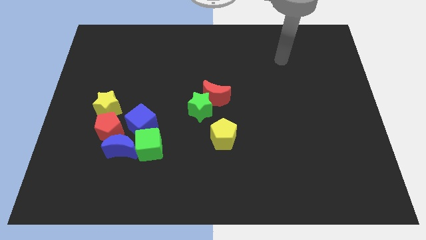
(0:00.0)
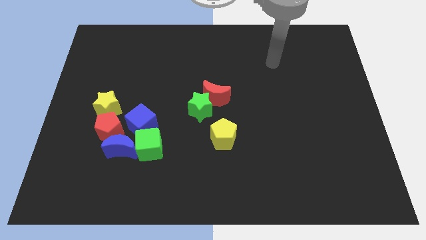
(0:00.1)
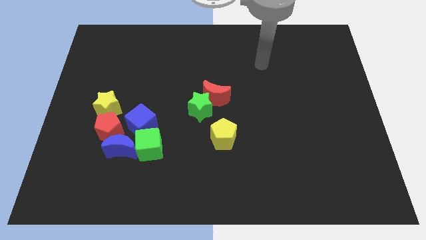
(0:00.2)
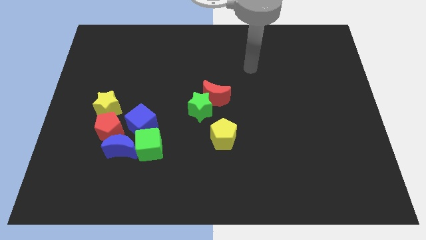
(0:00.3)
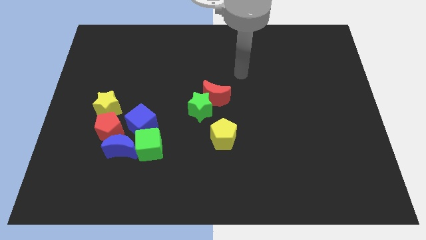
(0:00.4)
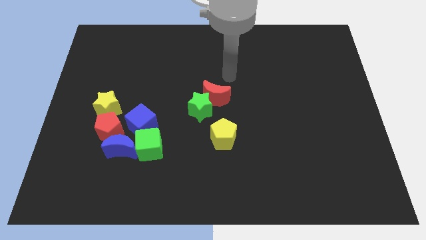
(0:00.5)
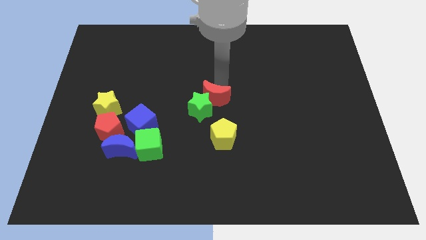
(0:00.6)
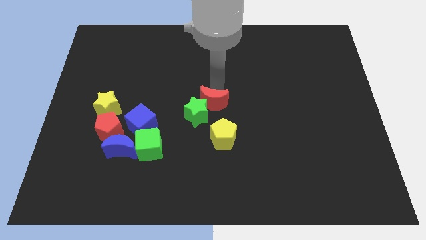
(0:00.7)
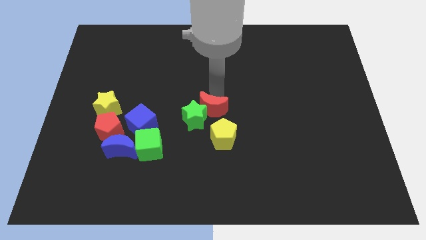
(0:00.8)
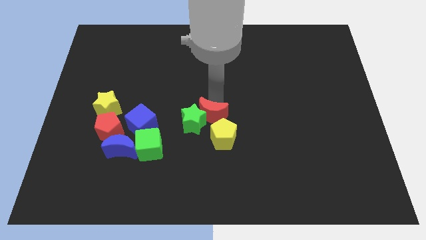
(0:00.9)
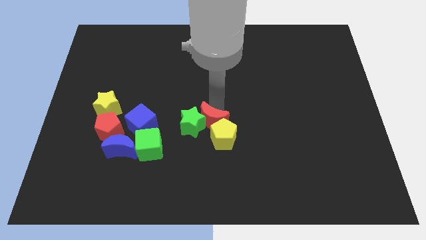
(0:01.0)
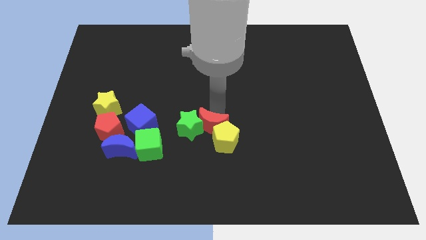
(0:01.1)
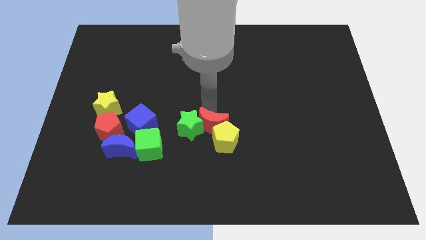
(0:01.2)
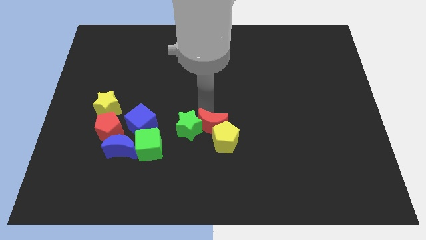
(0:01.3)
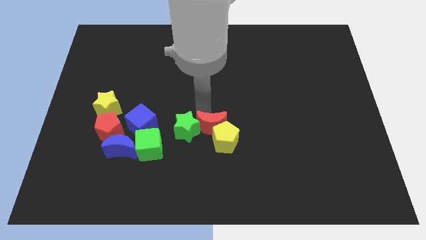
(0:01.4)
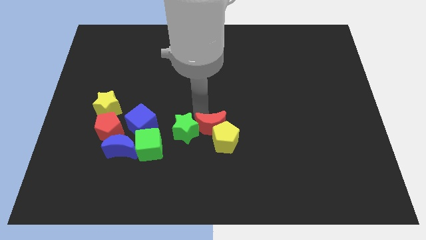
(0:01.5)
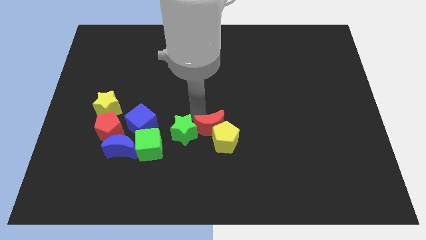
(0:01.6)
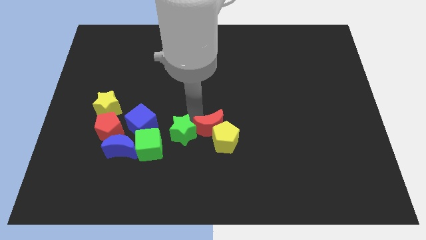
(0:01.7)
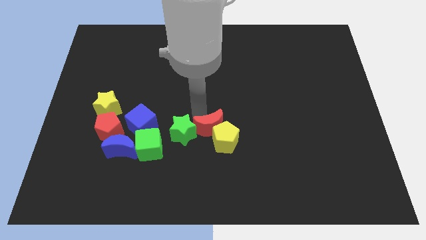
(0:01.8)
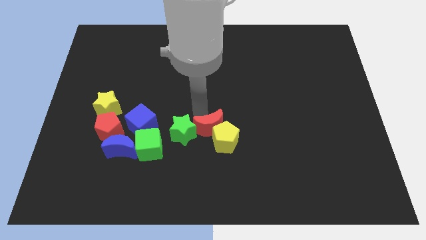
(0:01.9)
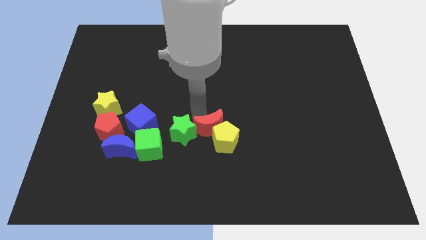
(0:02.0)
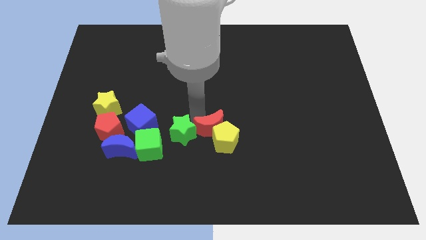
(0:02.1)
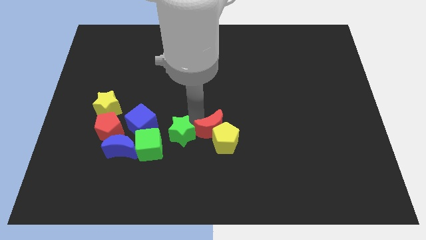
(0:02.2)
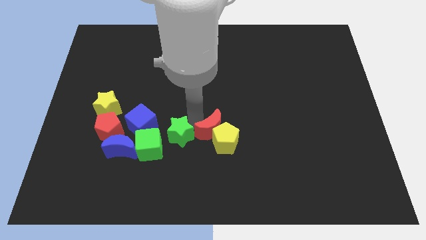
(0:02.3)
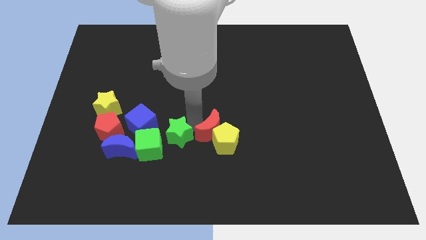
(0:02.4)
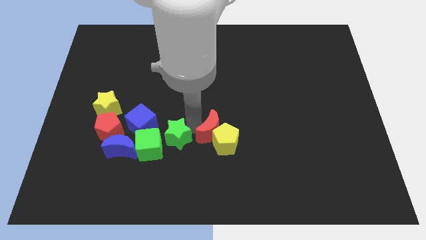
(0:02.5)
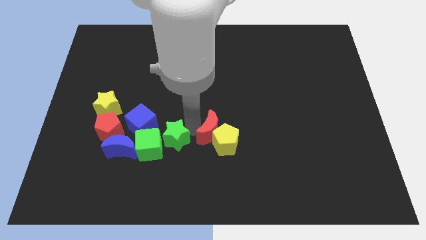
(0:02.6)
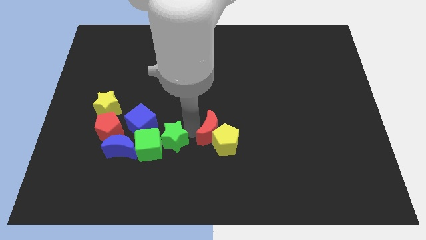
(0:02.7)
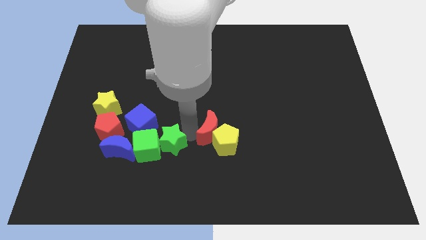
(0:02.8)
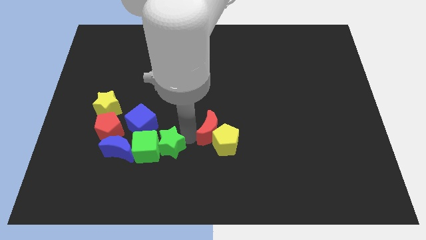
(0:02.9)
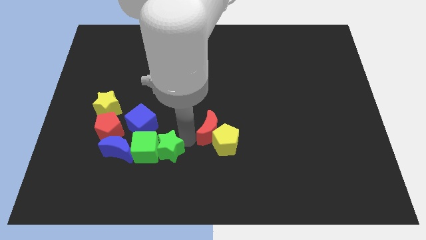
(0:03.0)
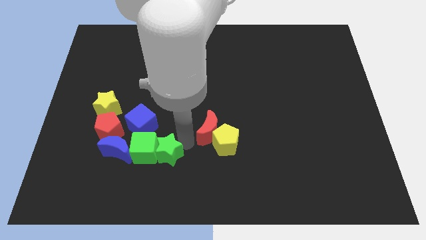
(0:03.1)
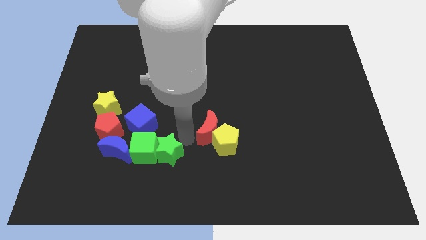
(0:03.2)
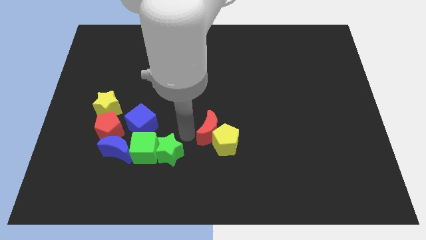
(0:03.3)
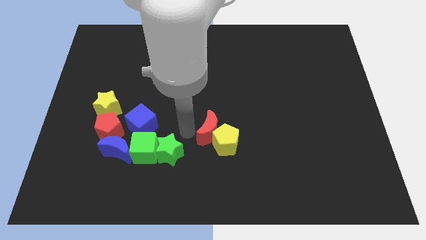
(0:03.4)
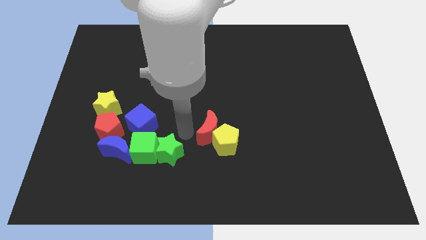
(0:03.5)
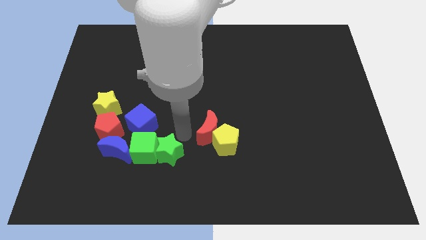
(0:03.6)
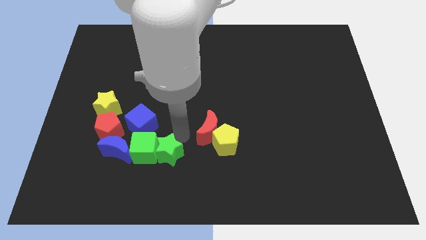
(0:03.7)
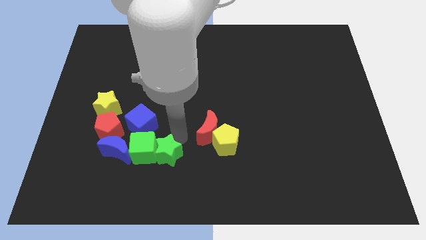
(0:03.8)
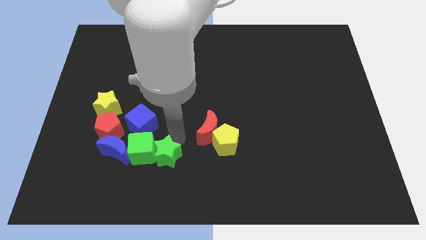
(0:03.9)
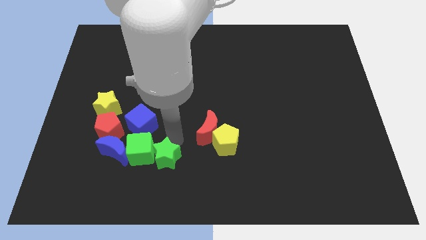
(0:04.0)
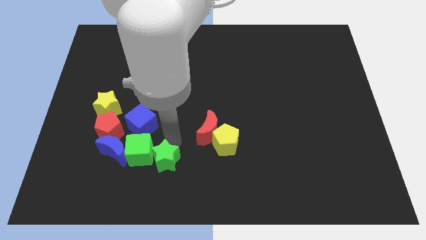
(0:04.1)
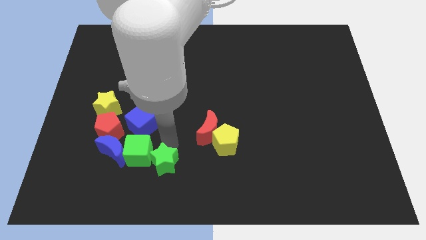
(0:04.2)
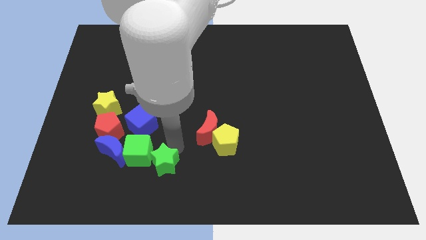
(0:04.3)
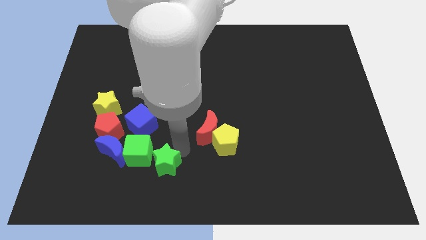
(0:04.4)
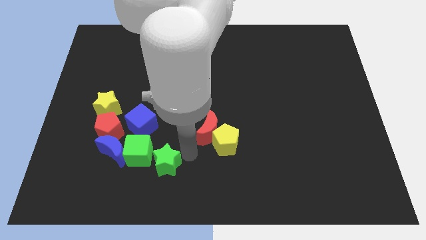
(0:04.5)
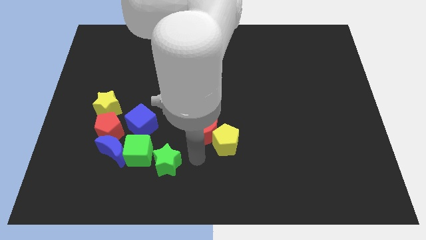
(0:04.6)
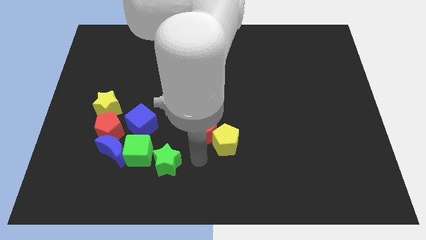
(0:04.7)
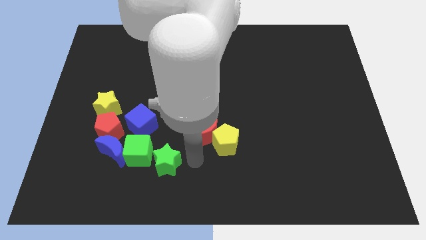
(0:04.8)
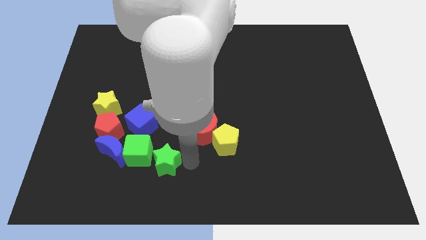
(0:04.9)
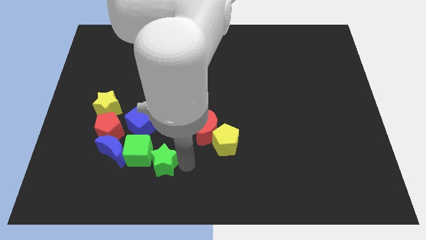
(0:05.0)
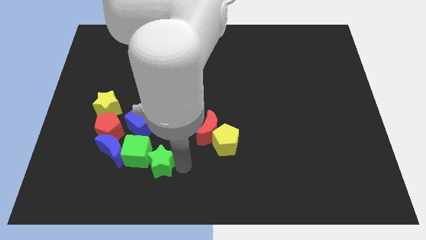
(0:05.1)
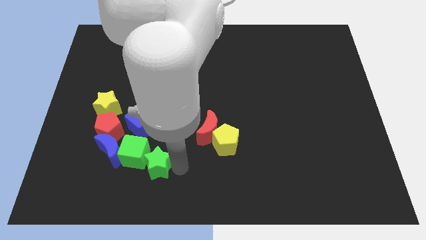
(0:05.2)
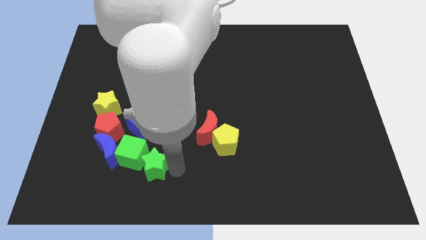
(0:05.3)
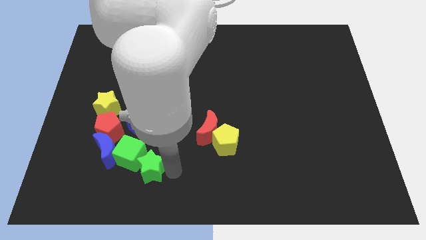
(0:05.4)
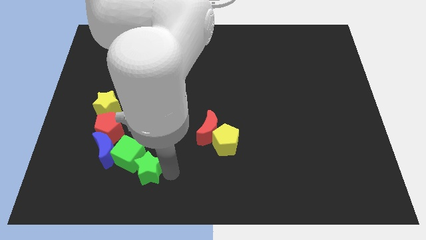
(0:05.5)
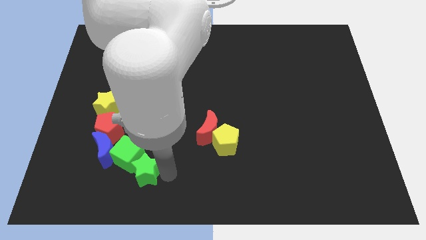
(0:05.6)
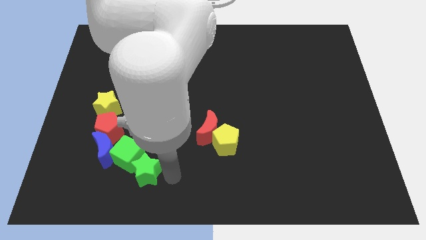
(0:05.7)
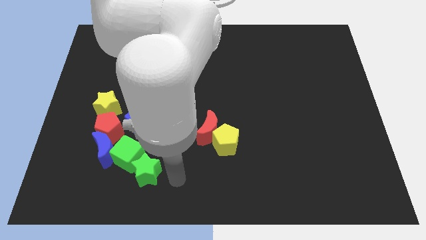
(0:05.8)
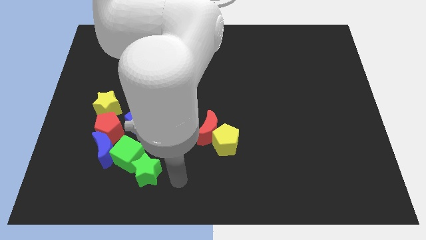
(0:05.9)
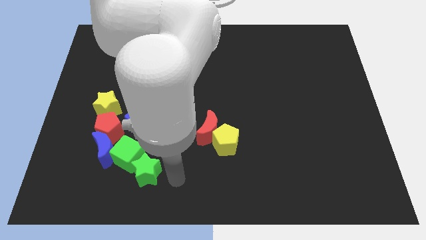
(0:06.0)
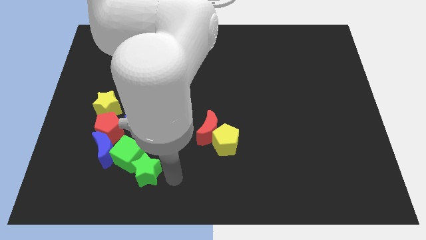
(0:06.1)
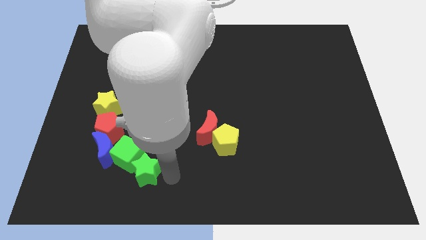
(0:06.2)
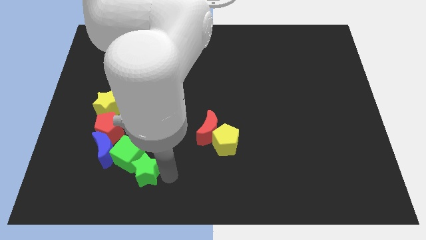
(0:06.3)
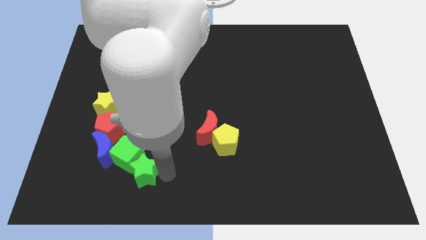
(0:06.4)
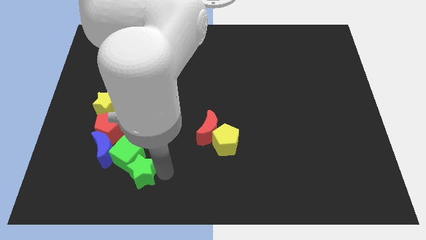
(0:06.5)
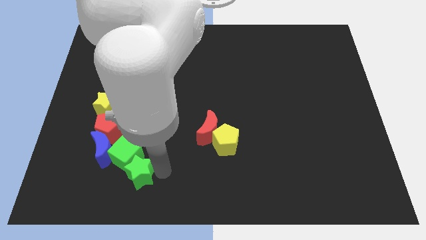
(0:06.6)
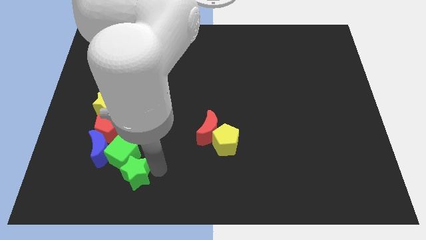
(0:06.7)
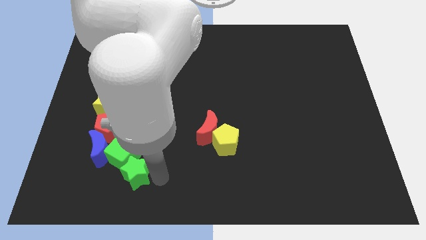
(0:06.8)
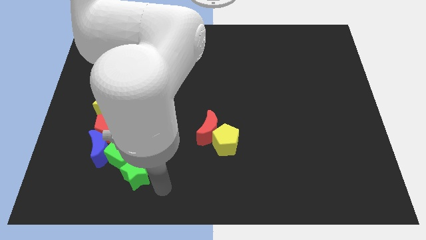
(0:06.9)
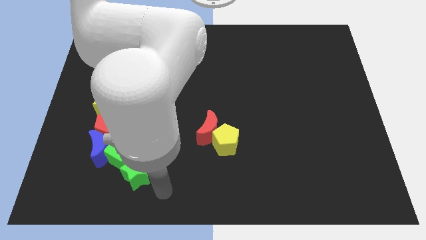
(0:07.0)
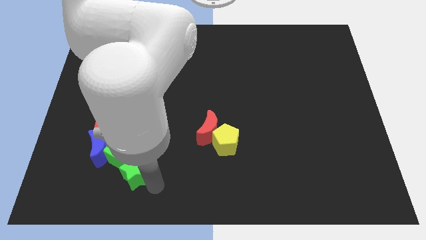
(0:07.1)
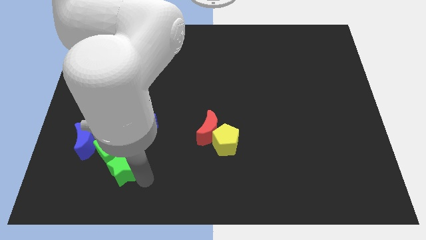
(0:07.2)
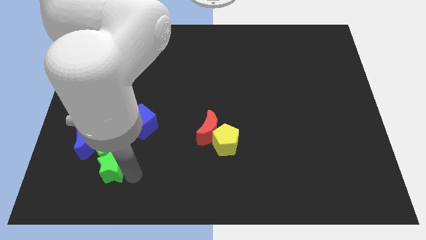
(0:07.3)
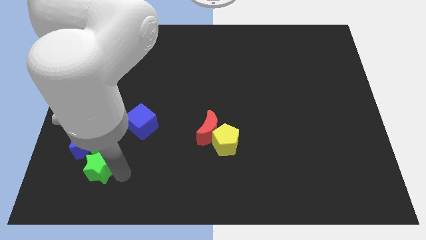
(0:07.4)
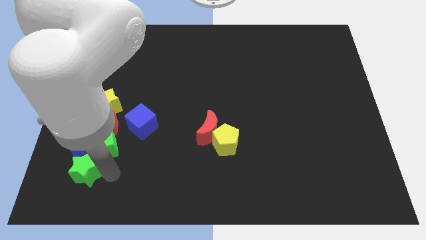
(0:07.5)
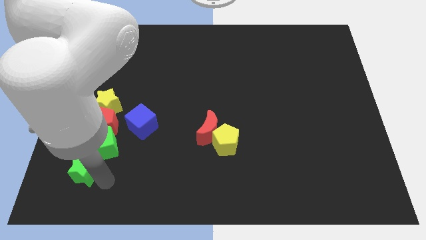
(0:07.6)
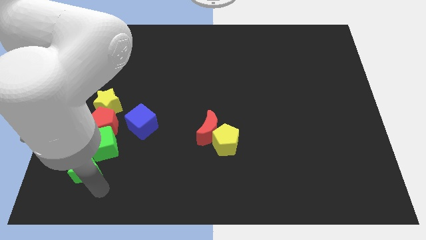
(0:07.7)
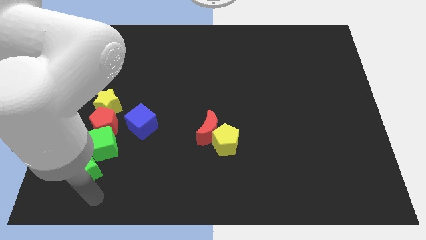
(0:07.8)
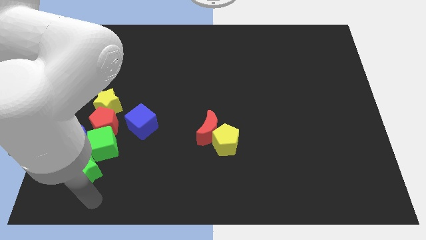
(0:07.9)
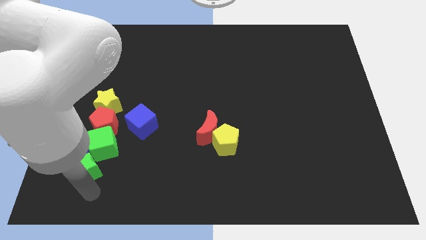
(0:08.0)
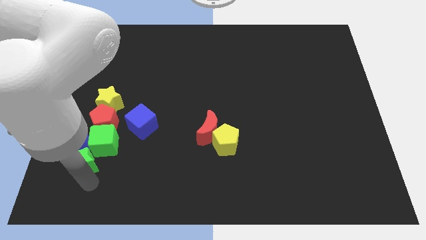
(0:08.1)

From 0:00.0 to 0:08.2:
push the green star close to the blue moon
